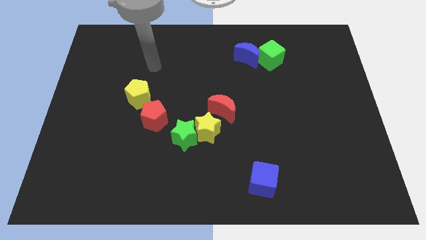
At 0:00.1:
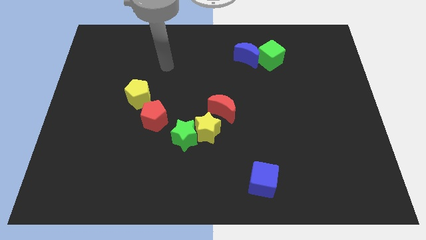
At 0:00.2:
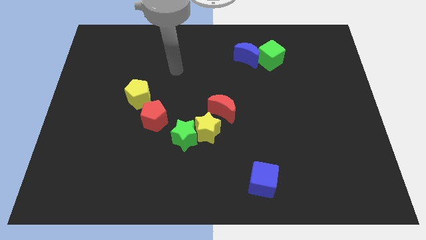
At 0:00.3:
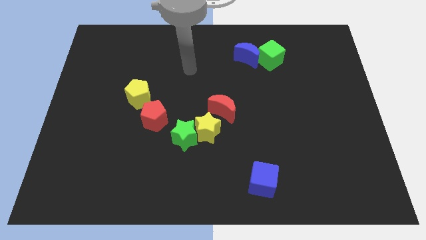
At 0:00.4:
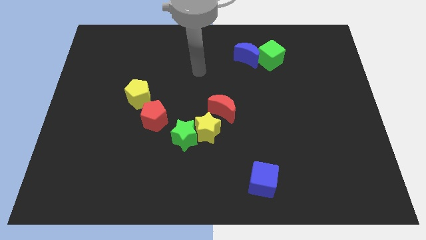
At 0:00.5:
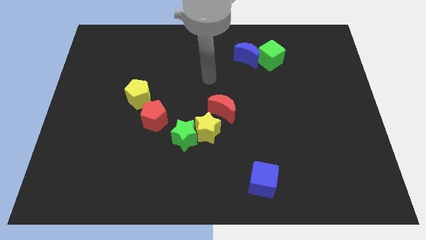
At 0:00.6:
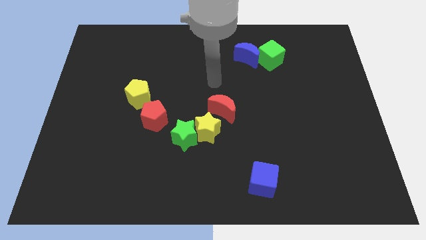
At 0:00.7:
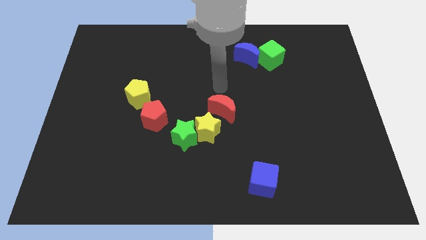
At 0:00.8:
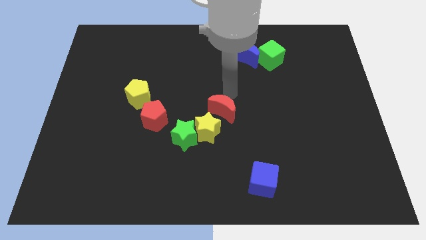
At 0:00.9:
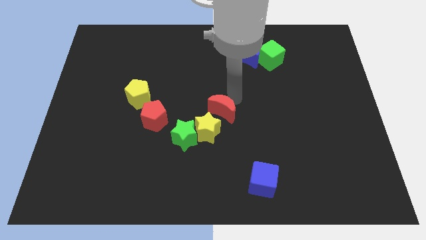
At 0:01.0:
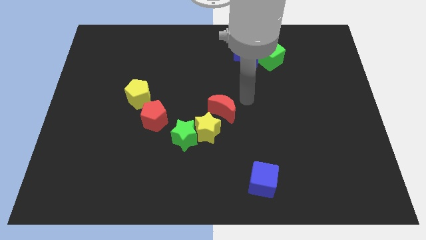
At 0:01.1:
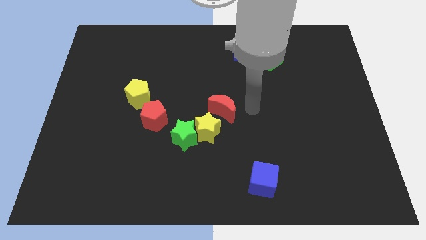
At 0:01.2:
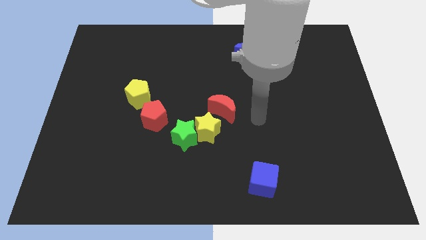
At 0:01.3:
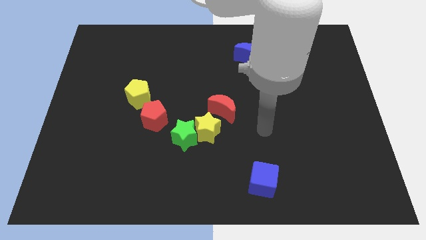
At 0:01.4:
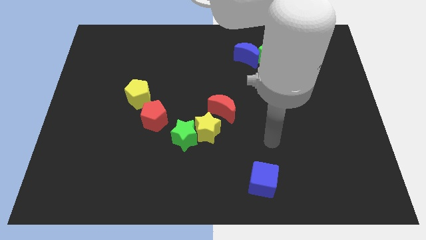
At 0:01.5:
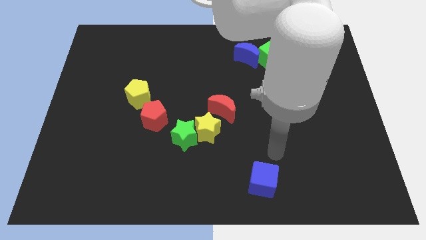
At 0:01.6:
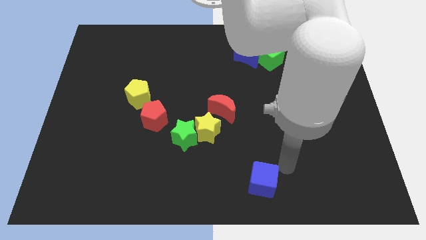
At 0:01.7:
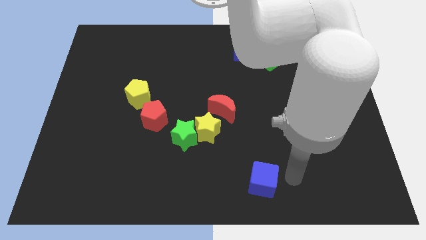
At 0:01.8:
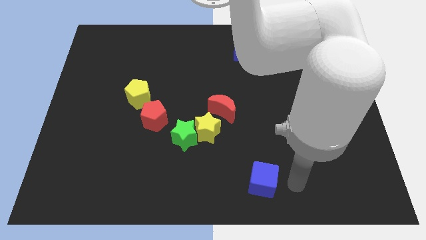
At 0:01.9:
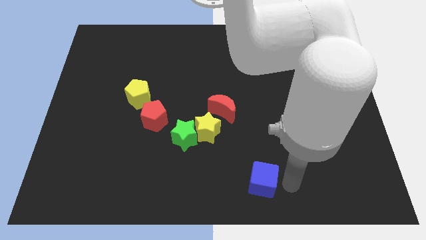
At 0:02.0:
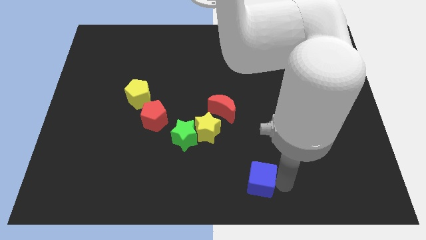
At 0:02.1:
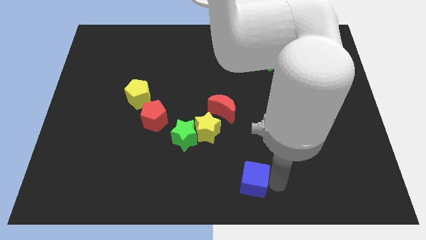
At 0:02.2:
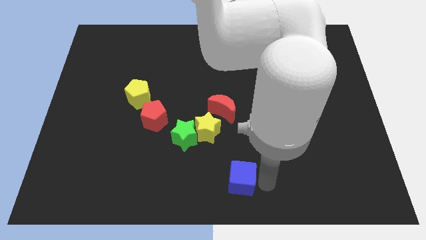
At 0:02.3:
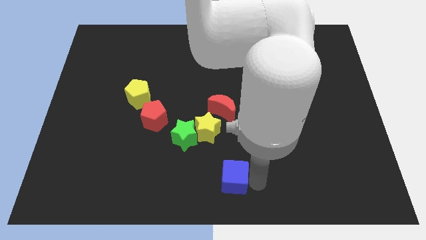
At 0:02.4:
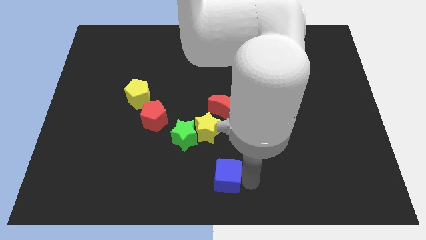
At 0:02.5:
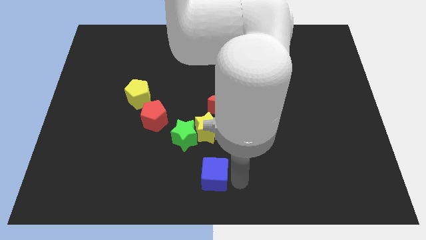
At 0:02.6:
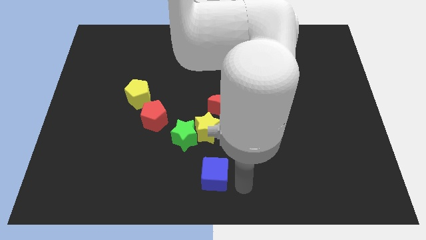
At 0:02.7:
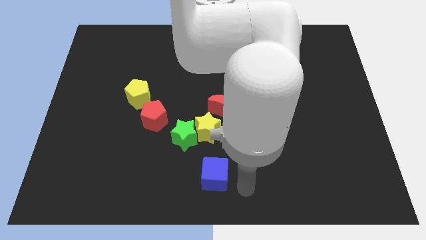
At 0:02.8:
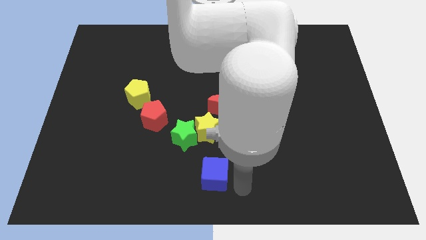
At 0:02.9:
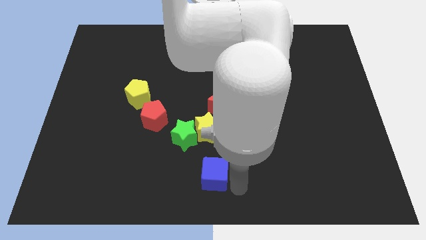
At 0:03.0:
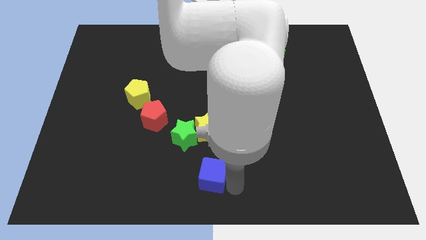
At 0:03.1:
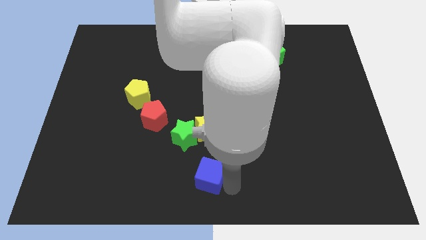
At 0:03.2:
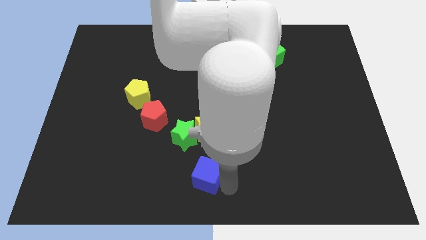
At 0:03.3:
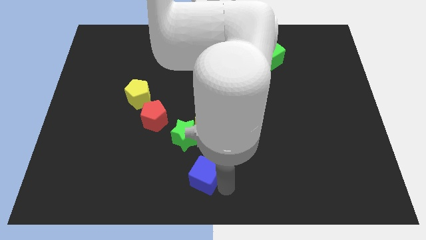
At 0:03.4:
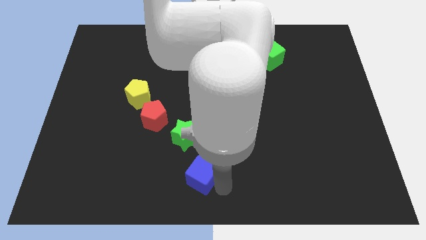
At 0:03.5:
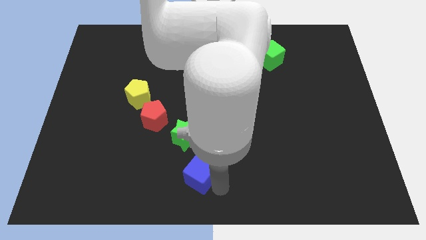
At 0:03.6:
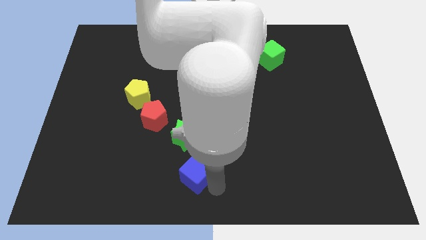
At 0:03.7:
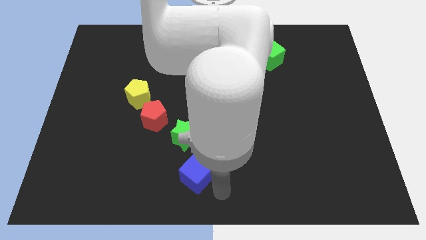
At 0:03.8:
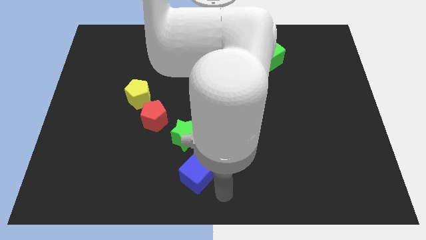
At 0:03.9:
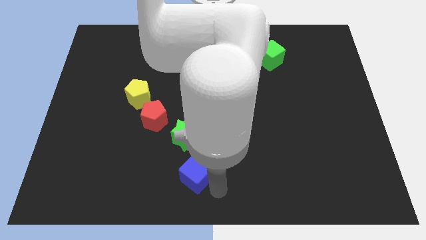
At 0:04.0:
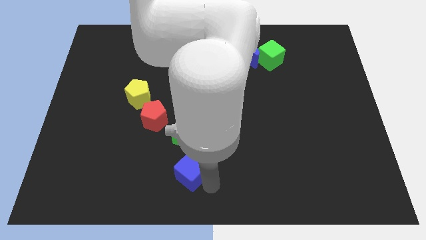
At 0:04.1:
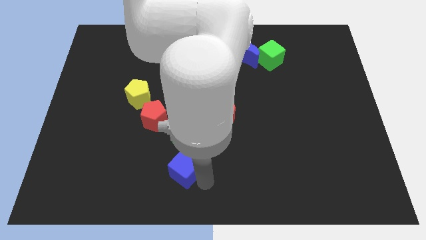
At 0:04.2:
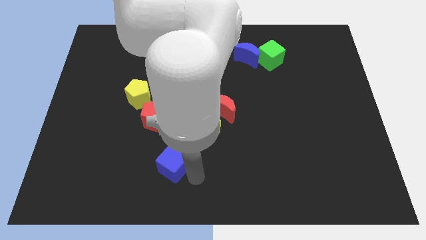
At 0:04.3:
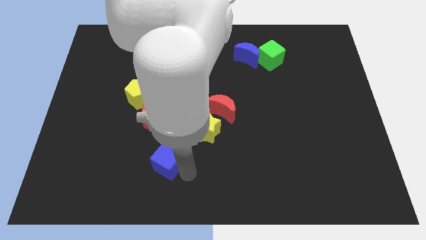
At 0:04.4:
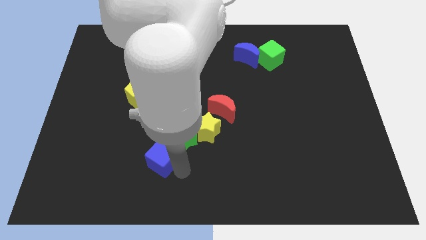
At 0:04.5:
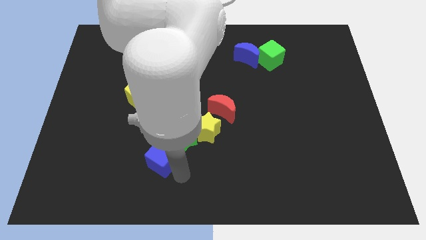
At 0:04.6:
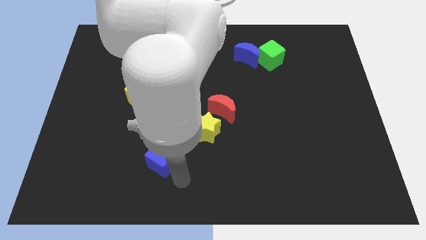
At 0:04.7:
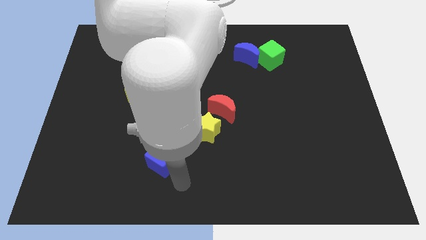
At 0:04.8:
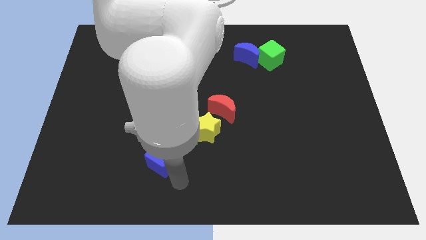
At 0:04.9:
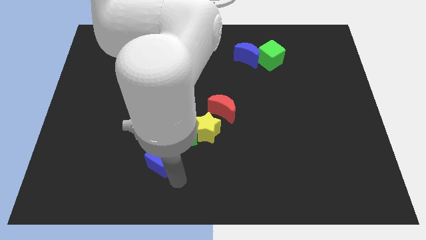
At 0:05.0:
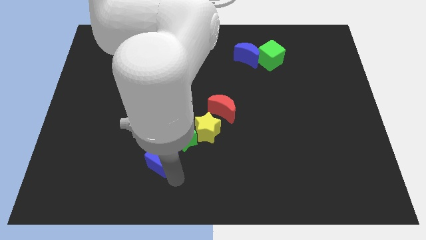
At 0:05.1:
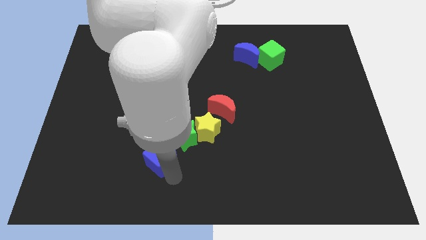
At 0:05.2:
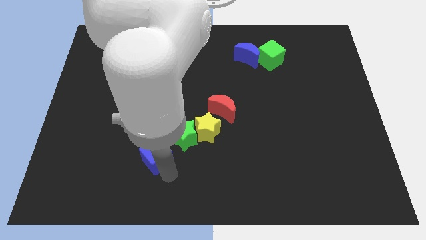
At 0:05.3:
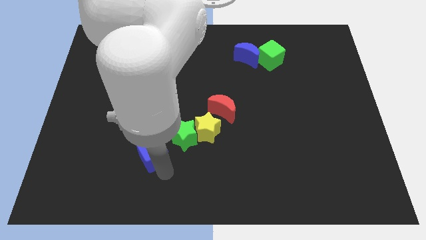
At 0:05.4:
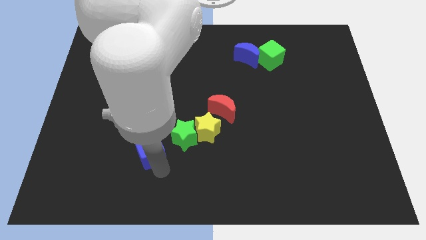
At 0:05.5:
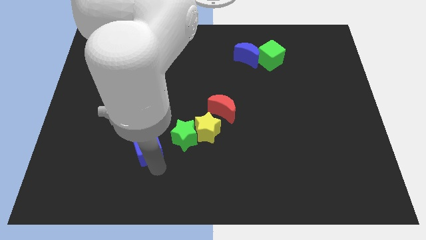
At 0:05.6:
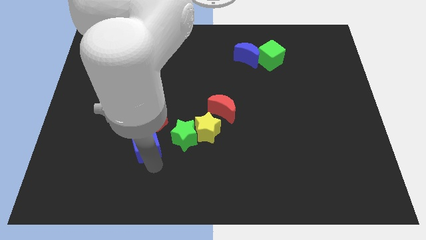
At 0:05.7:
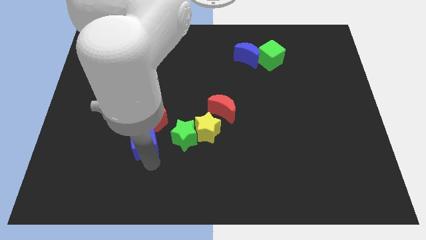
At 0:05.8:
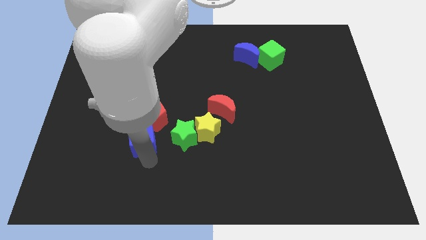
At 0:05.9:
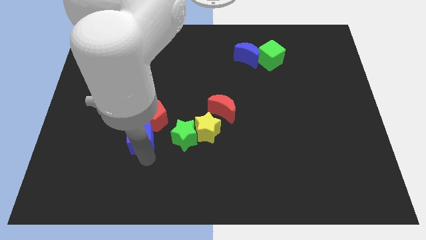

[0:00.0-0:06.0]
slide the blue cube close to the red pentagon
